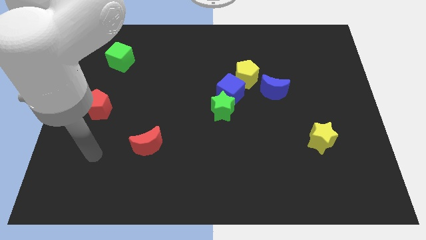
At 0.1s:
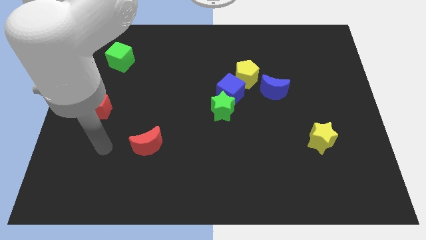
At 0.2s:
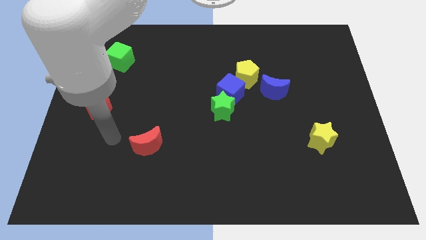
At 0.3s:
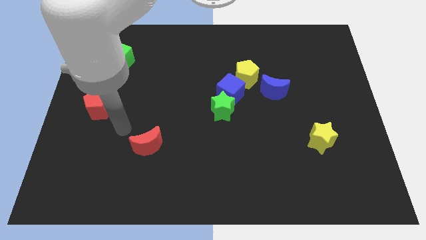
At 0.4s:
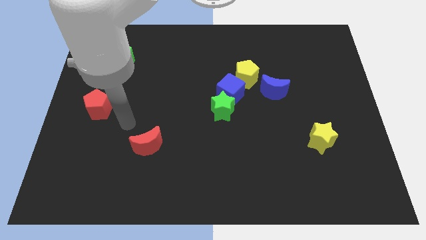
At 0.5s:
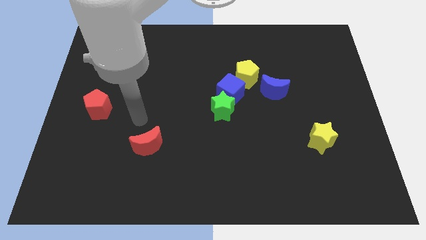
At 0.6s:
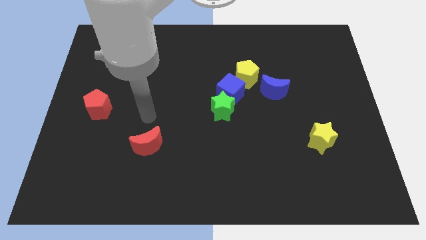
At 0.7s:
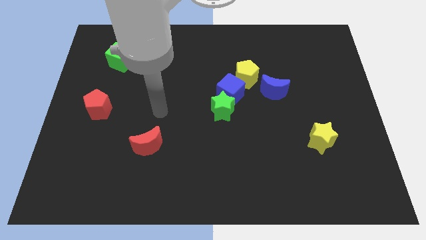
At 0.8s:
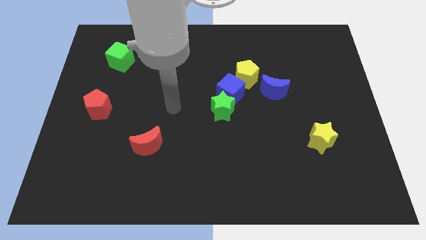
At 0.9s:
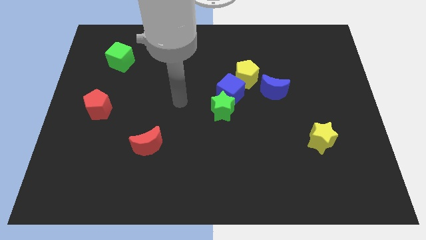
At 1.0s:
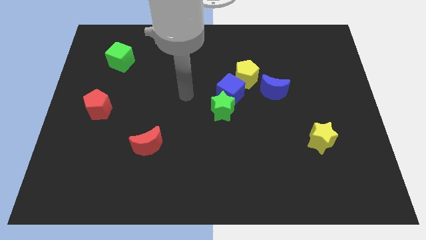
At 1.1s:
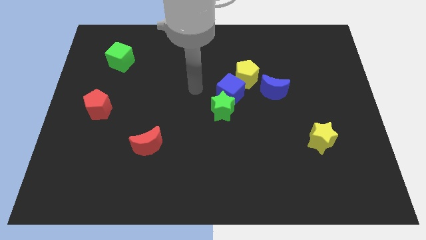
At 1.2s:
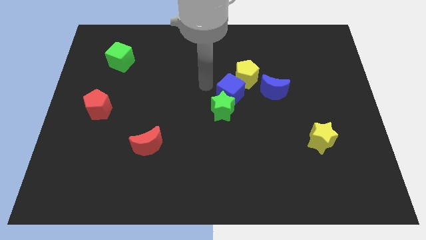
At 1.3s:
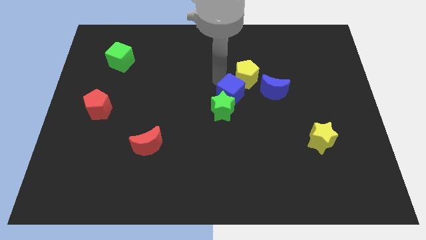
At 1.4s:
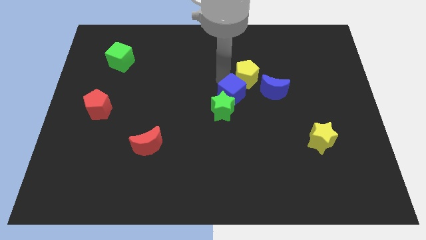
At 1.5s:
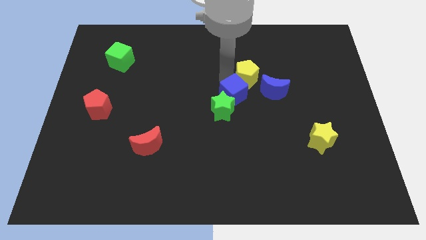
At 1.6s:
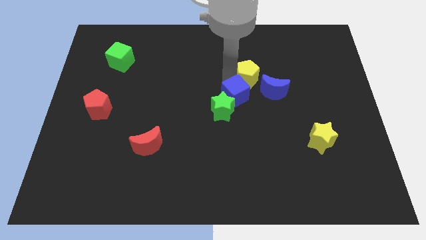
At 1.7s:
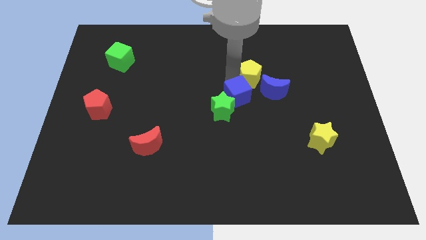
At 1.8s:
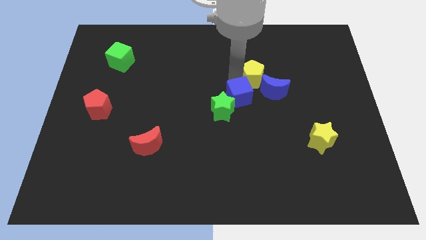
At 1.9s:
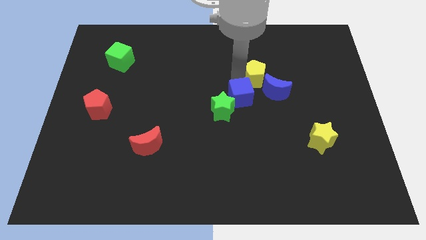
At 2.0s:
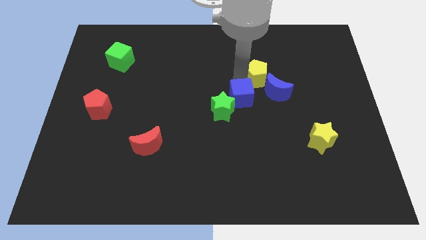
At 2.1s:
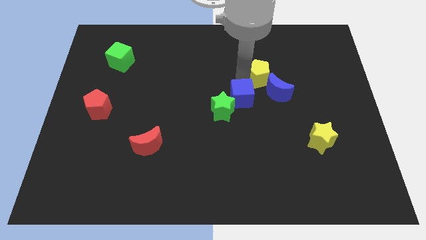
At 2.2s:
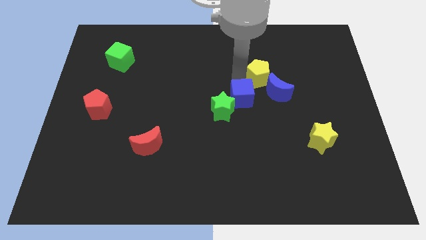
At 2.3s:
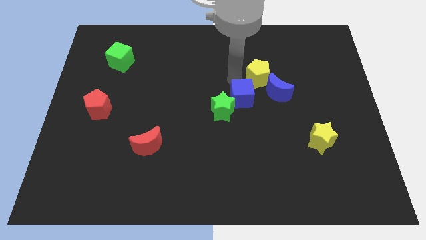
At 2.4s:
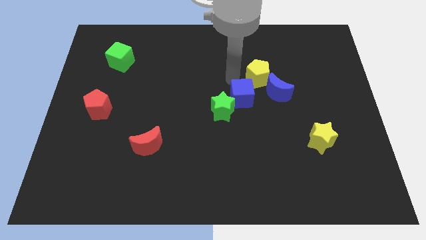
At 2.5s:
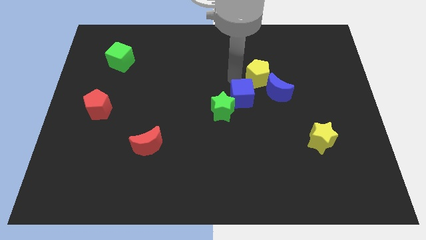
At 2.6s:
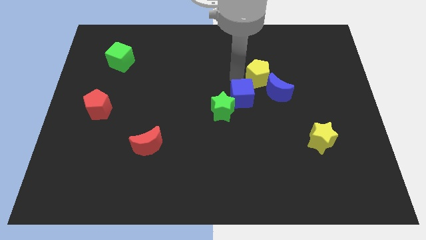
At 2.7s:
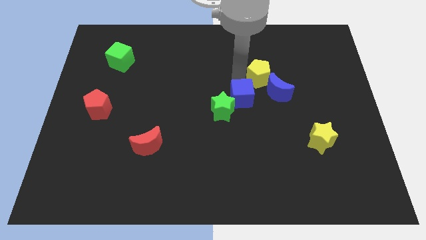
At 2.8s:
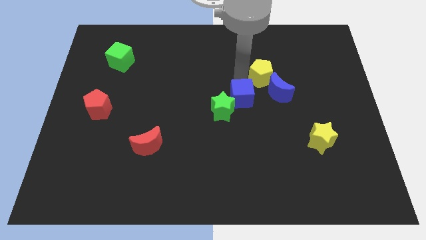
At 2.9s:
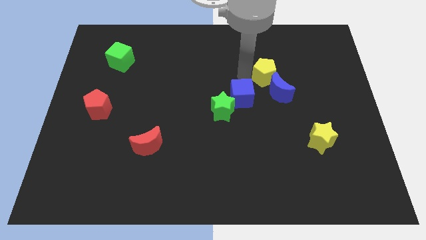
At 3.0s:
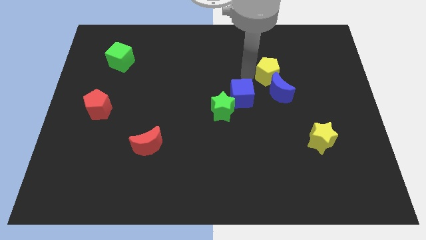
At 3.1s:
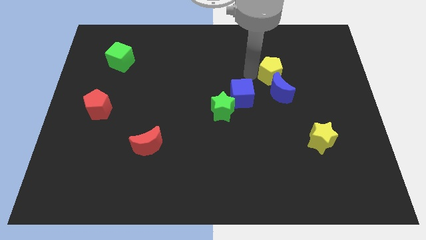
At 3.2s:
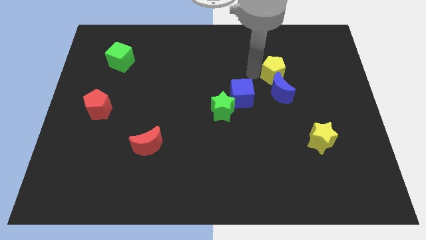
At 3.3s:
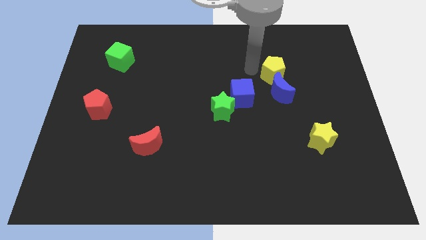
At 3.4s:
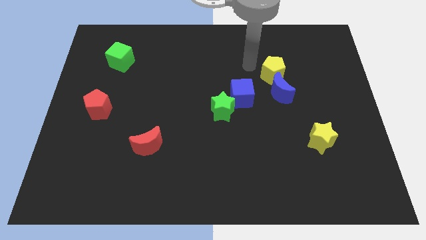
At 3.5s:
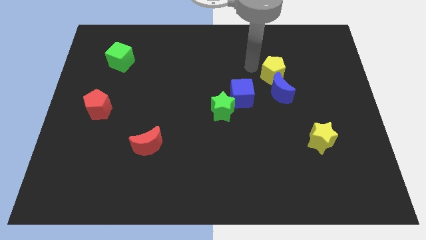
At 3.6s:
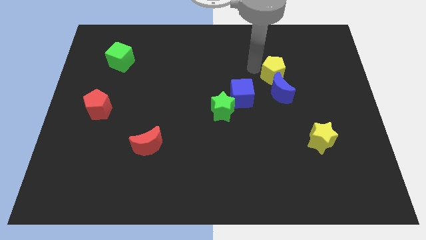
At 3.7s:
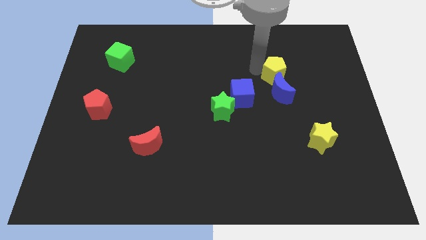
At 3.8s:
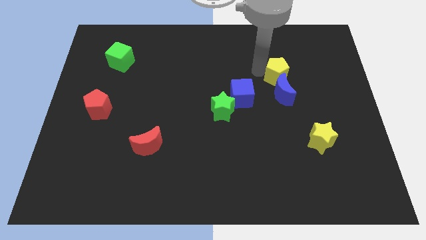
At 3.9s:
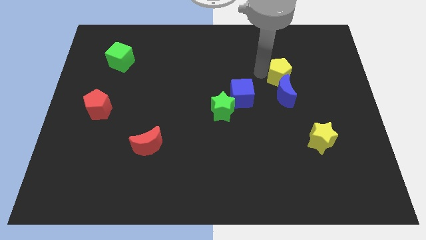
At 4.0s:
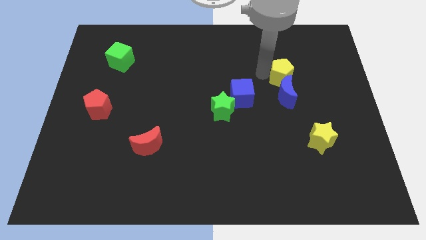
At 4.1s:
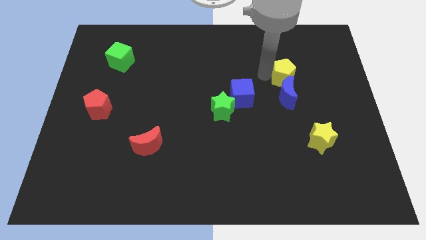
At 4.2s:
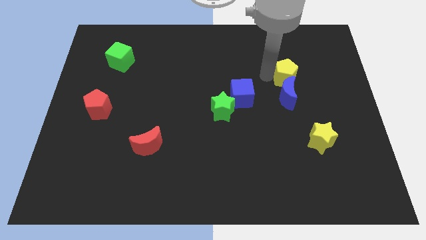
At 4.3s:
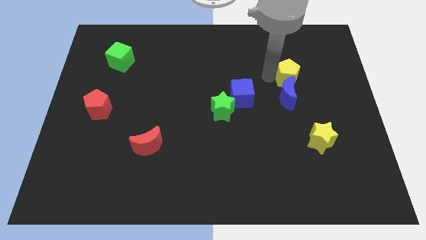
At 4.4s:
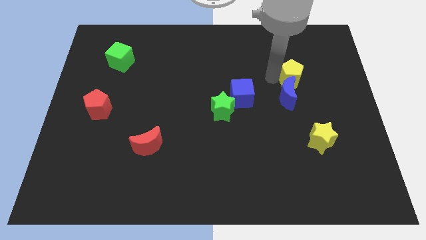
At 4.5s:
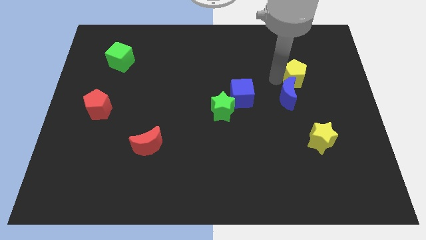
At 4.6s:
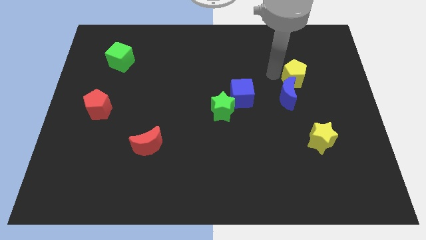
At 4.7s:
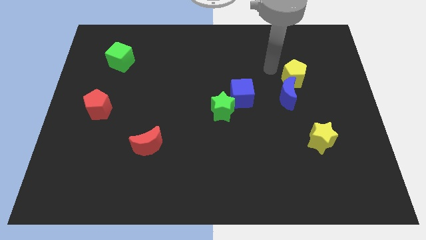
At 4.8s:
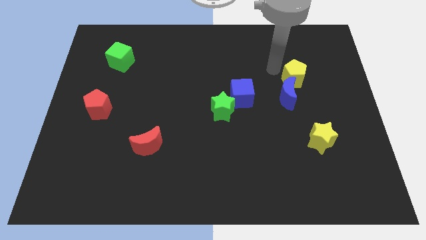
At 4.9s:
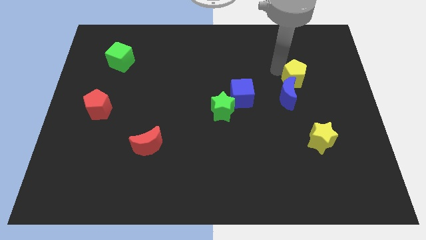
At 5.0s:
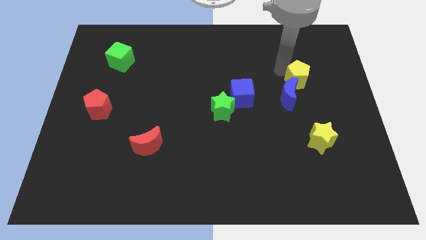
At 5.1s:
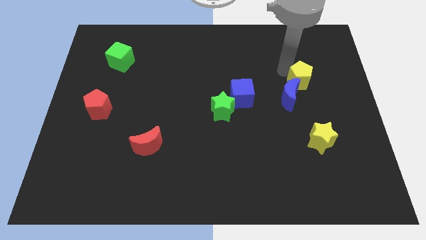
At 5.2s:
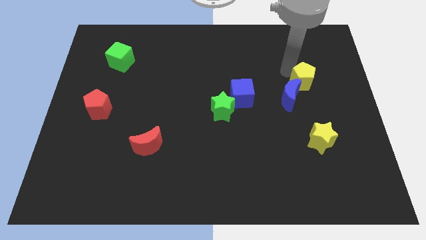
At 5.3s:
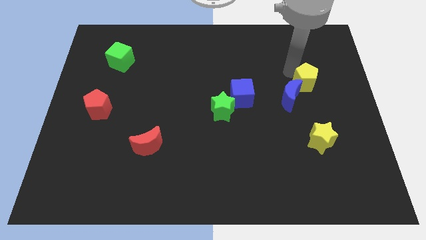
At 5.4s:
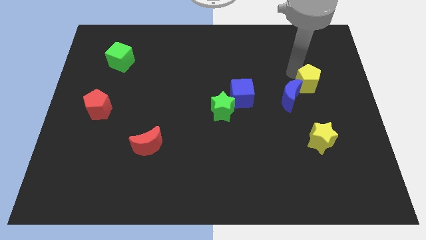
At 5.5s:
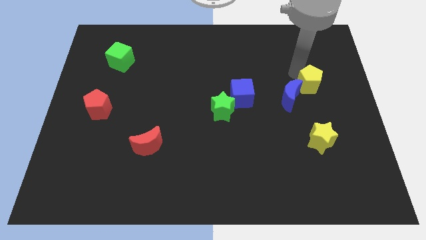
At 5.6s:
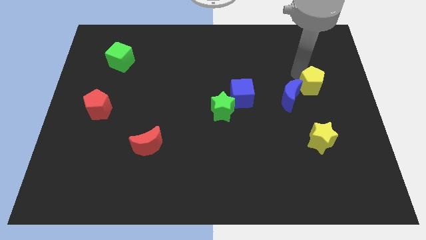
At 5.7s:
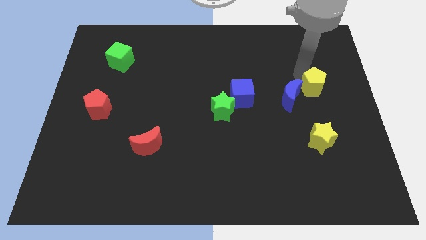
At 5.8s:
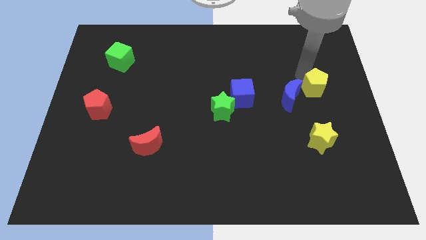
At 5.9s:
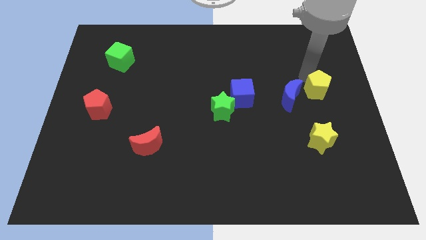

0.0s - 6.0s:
put the yellow pentagon to the center right

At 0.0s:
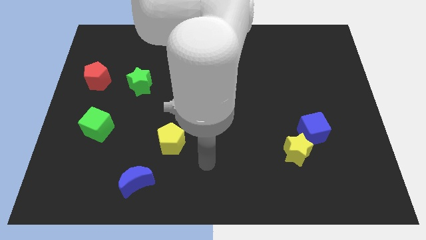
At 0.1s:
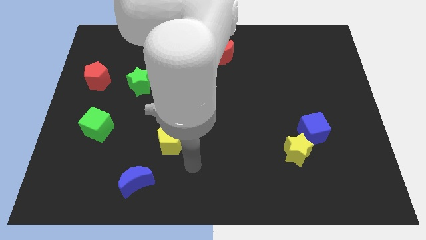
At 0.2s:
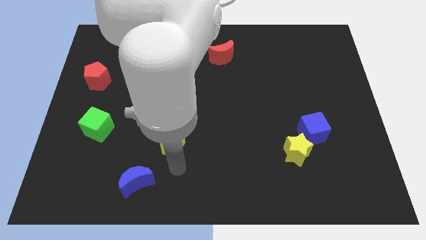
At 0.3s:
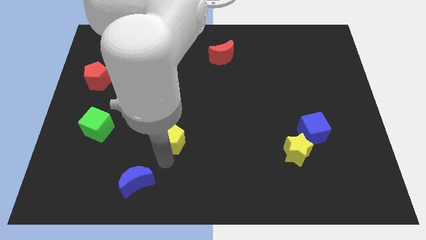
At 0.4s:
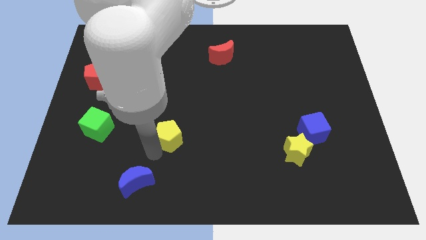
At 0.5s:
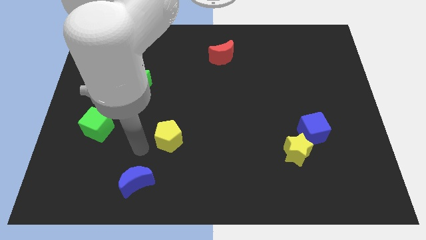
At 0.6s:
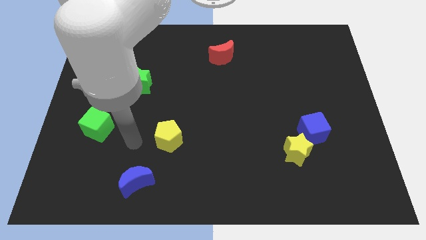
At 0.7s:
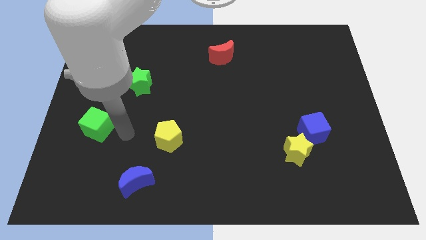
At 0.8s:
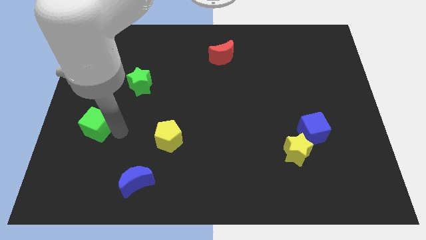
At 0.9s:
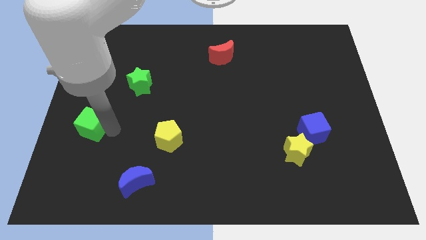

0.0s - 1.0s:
push the green cube to the center left

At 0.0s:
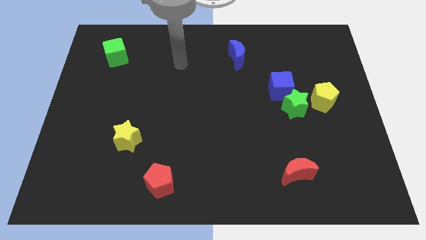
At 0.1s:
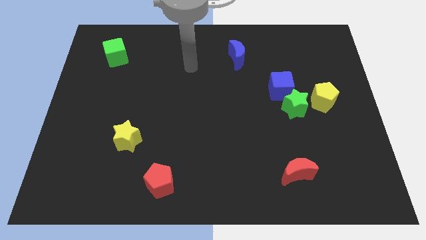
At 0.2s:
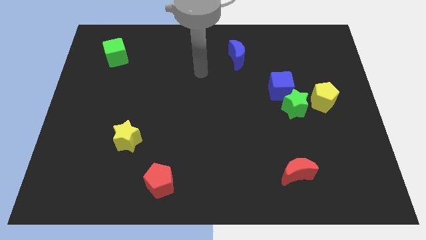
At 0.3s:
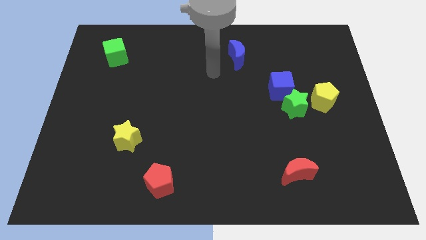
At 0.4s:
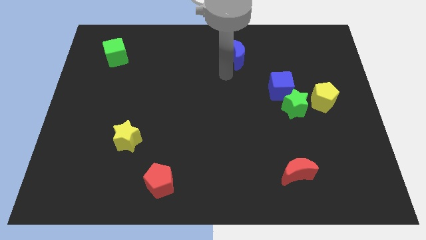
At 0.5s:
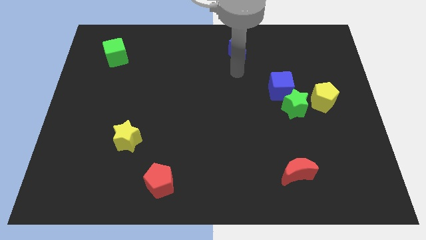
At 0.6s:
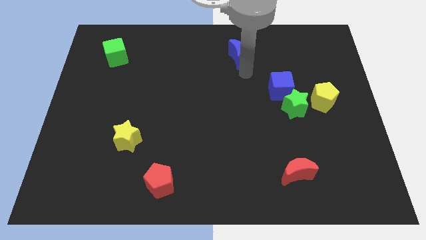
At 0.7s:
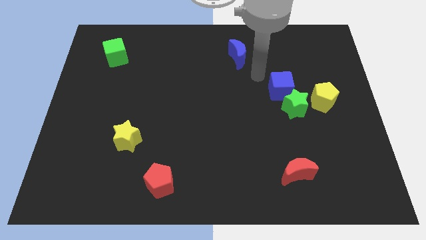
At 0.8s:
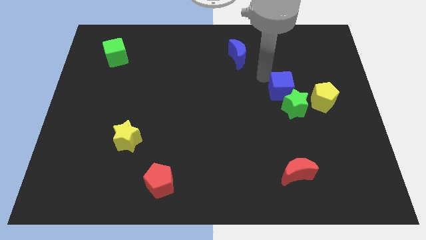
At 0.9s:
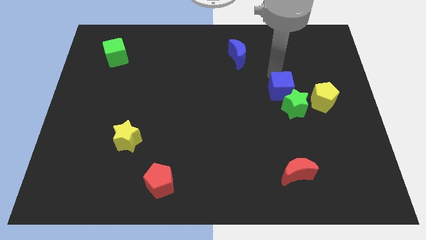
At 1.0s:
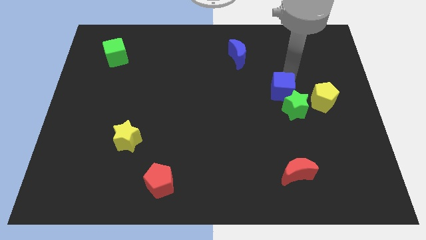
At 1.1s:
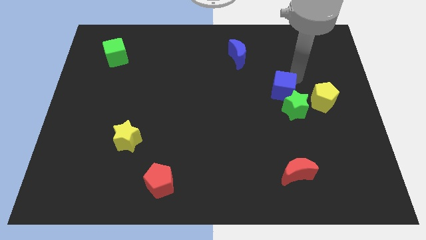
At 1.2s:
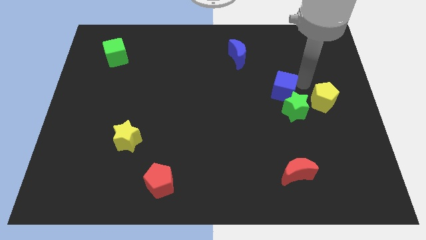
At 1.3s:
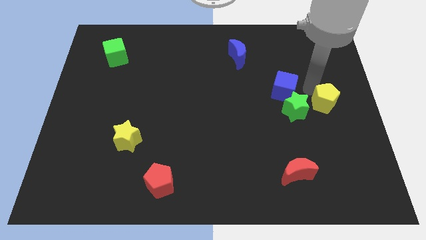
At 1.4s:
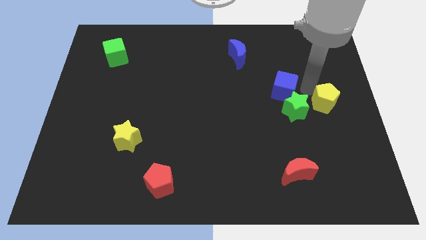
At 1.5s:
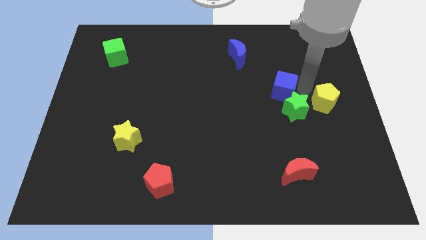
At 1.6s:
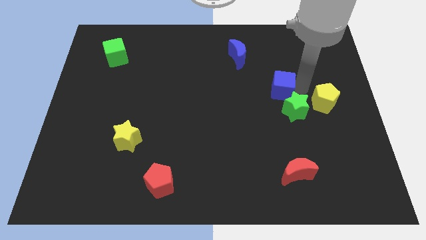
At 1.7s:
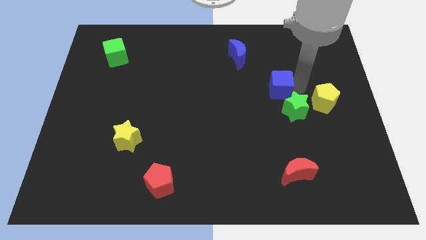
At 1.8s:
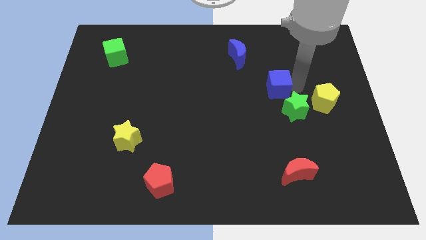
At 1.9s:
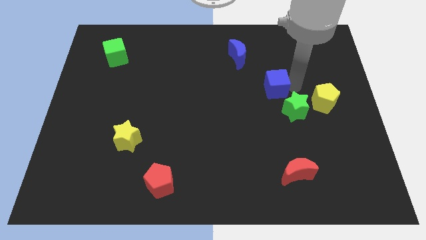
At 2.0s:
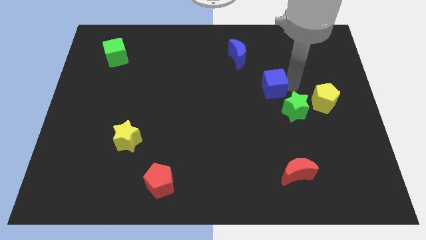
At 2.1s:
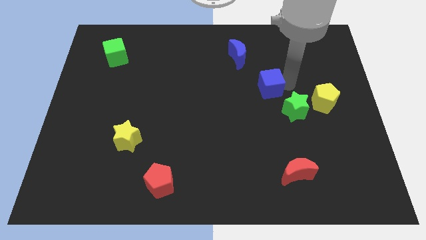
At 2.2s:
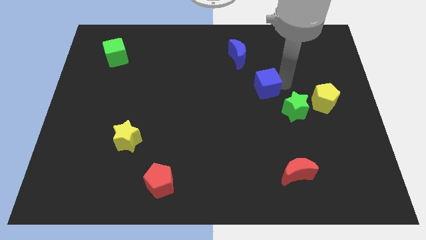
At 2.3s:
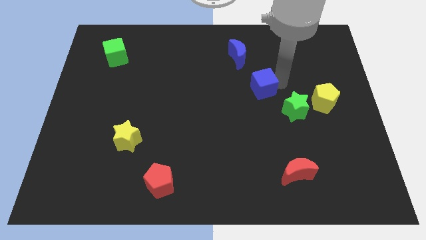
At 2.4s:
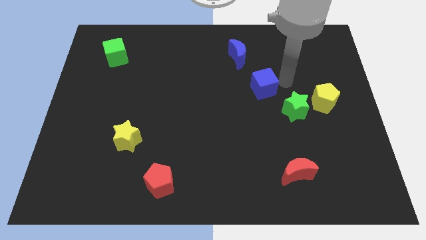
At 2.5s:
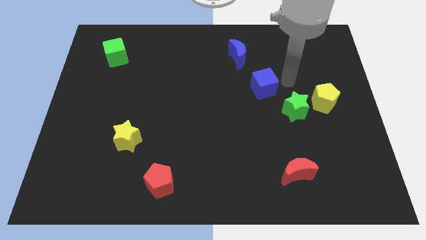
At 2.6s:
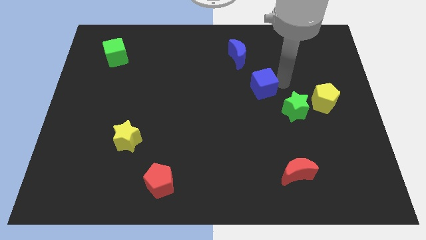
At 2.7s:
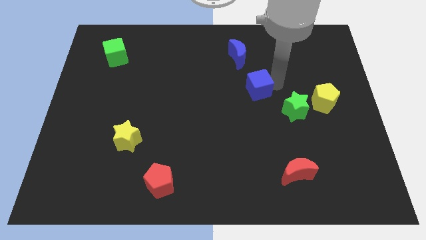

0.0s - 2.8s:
put the blue cube to the center
